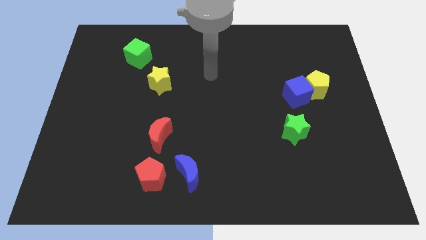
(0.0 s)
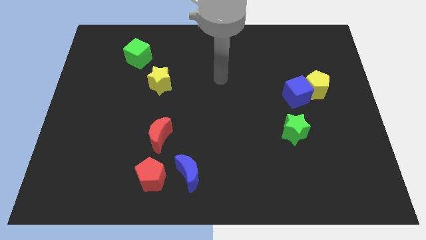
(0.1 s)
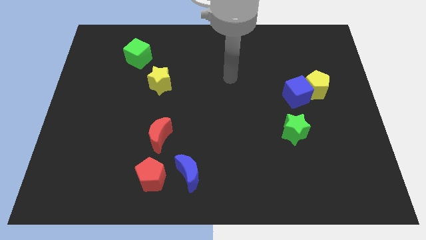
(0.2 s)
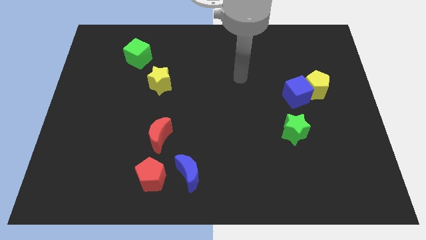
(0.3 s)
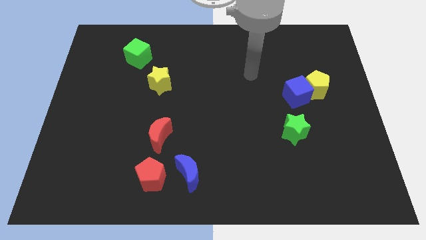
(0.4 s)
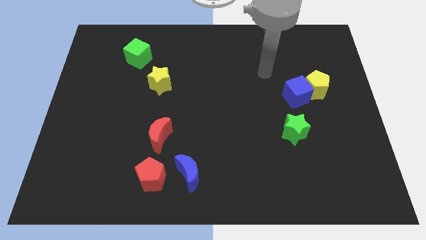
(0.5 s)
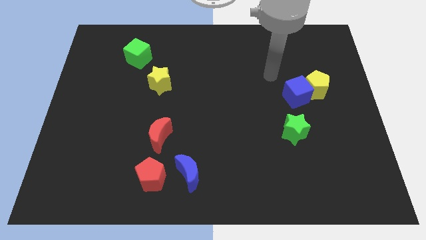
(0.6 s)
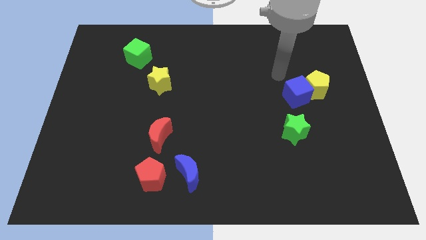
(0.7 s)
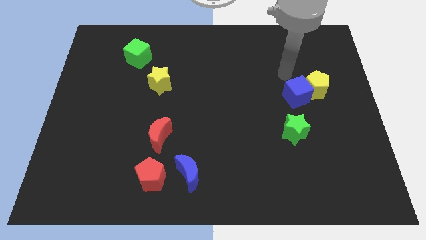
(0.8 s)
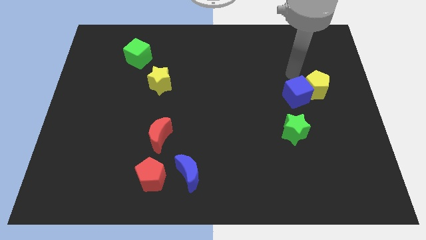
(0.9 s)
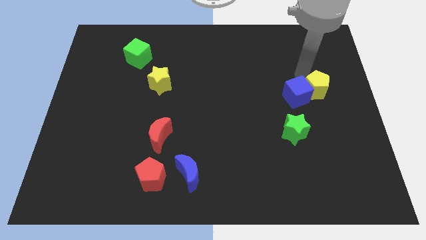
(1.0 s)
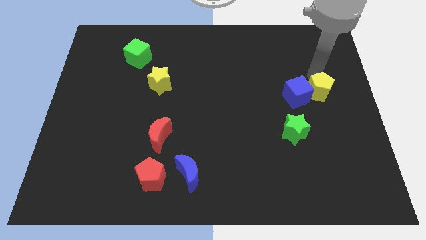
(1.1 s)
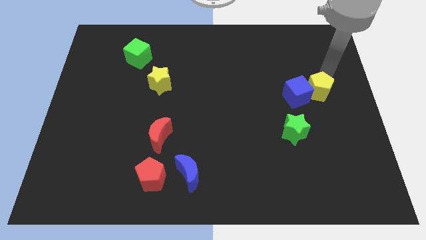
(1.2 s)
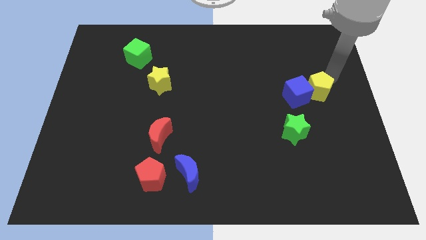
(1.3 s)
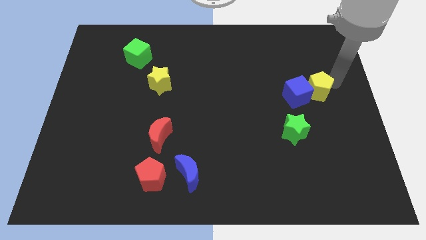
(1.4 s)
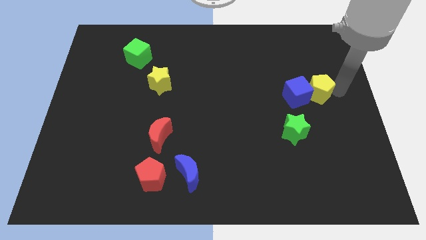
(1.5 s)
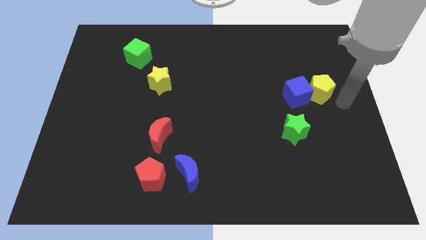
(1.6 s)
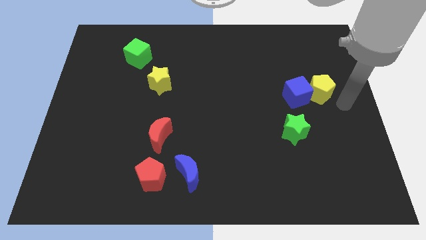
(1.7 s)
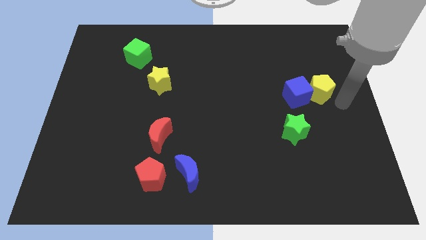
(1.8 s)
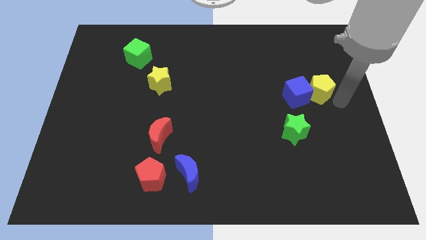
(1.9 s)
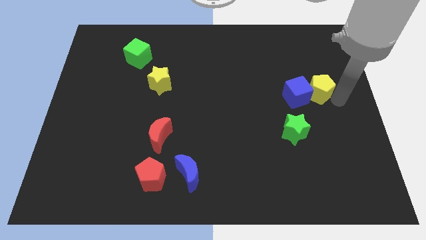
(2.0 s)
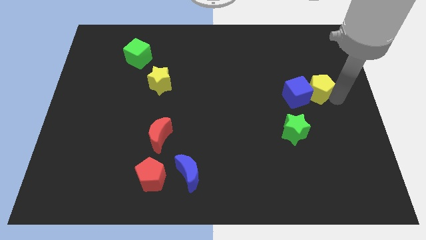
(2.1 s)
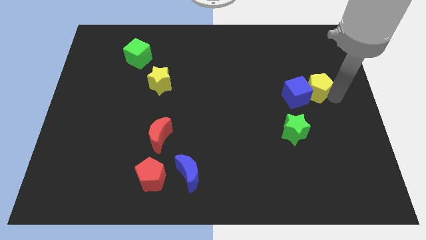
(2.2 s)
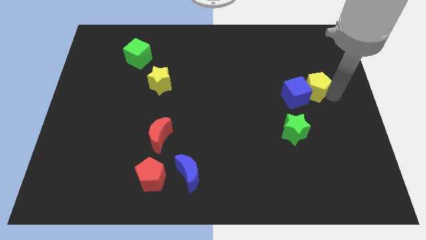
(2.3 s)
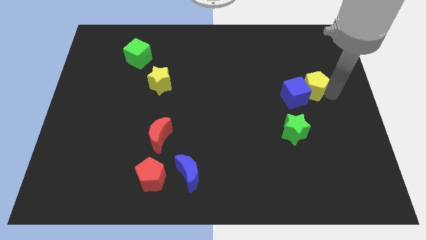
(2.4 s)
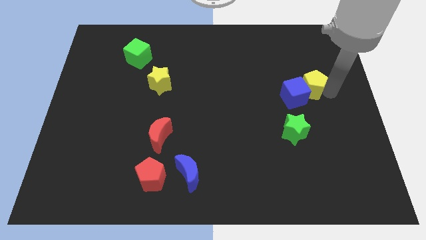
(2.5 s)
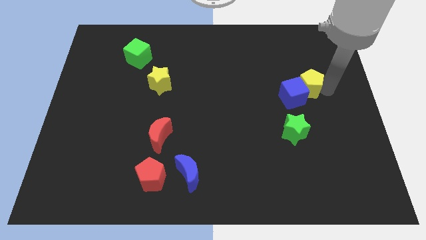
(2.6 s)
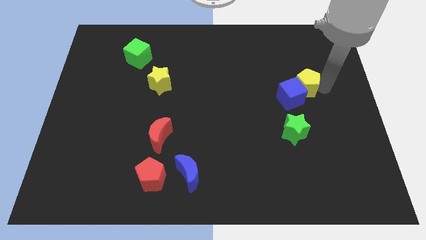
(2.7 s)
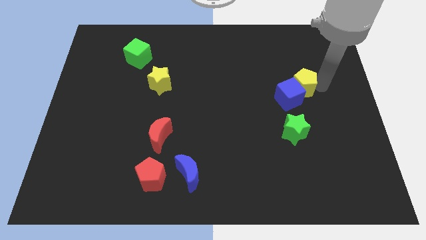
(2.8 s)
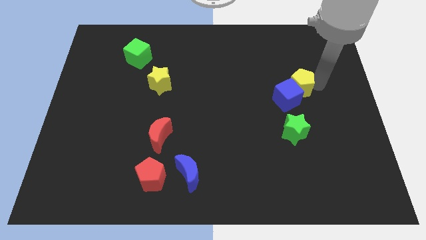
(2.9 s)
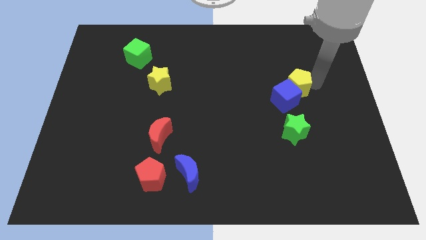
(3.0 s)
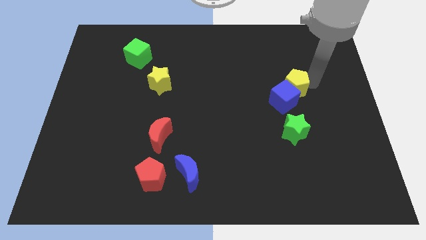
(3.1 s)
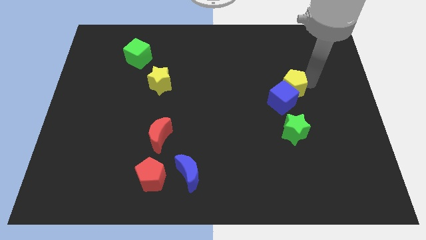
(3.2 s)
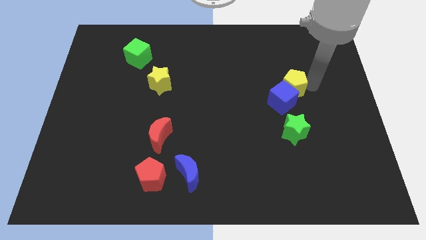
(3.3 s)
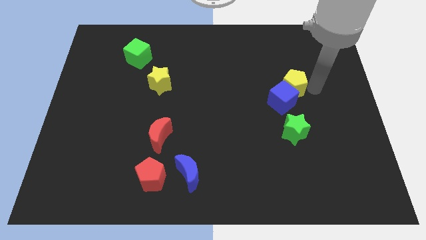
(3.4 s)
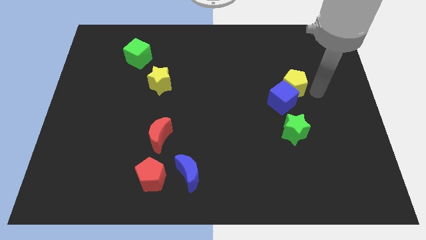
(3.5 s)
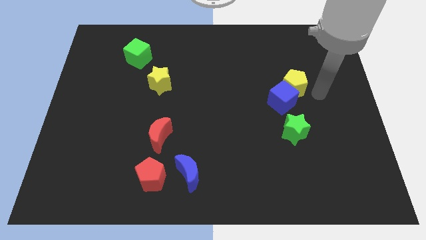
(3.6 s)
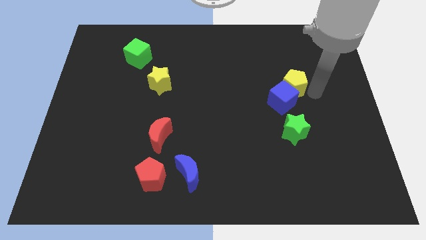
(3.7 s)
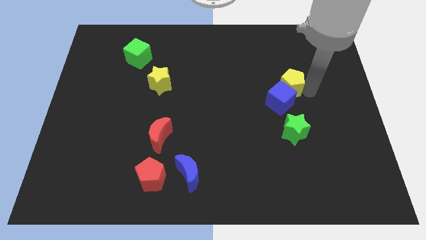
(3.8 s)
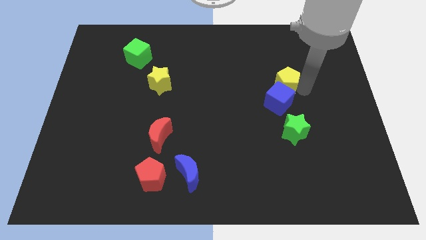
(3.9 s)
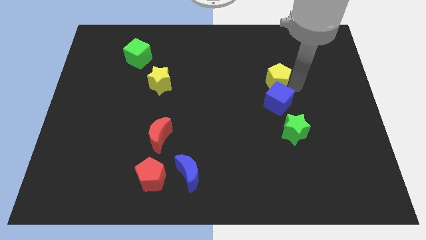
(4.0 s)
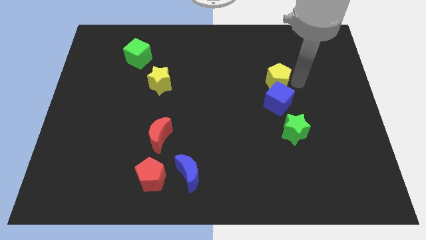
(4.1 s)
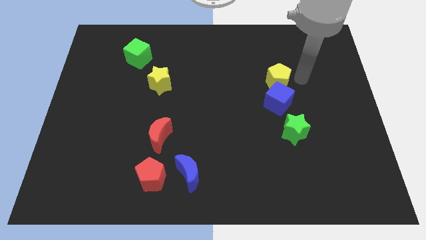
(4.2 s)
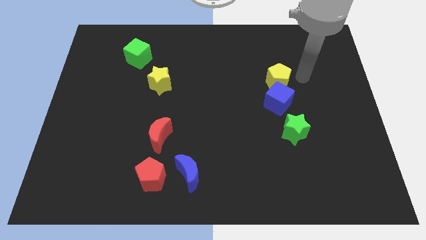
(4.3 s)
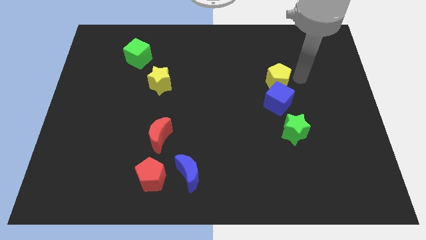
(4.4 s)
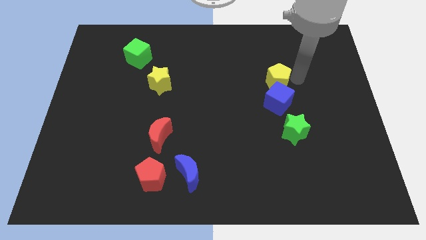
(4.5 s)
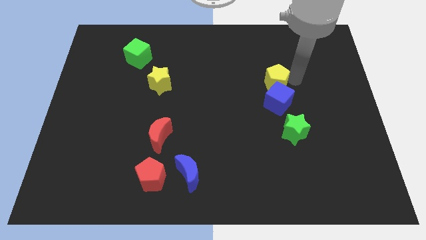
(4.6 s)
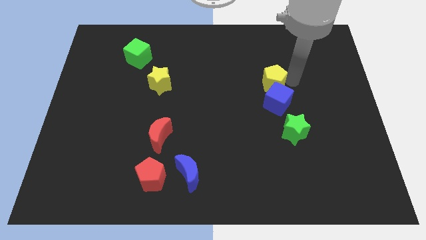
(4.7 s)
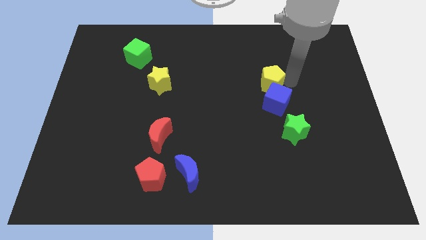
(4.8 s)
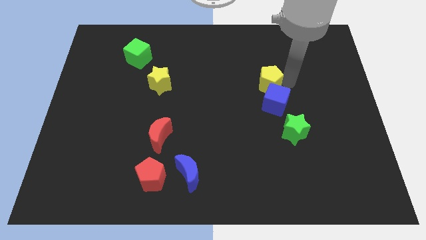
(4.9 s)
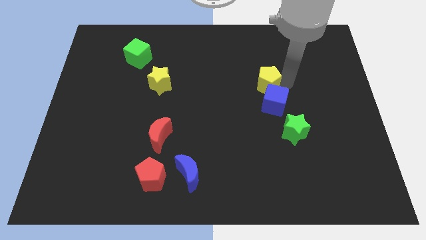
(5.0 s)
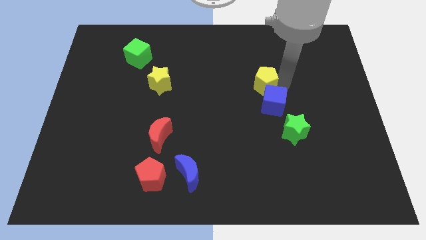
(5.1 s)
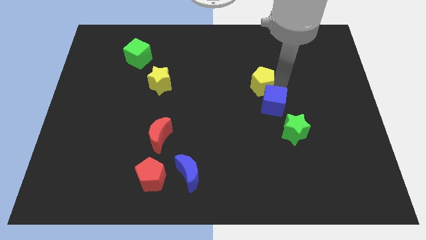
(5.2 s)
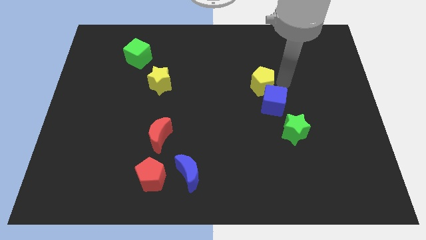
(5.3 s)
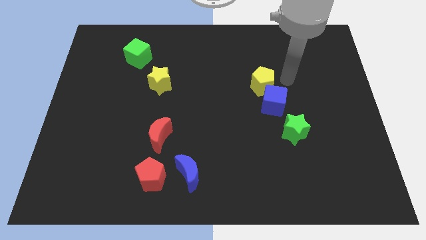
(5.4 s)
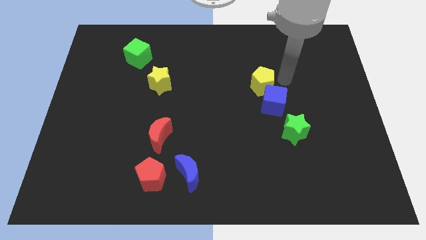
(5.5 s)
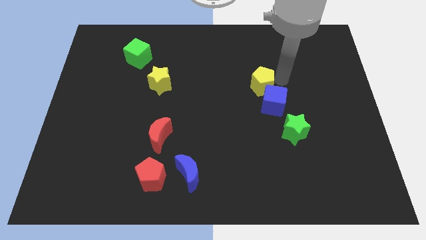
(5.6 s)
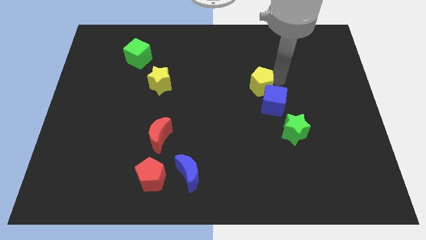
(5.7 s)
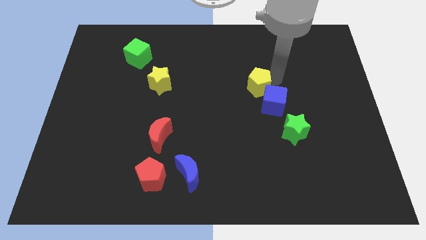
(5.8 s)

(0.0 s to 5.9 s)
push the yellow pentagon to the middle of the board

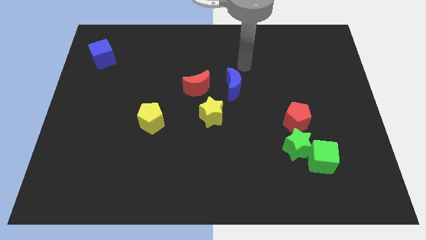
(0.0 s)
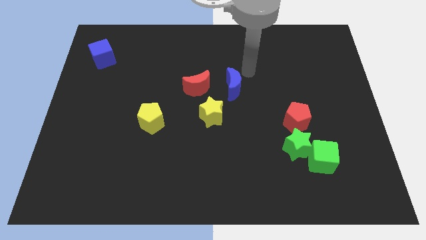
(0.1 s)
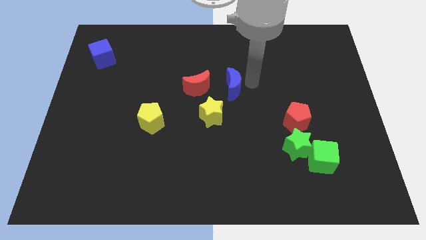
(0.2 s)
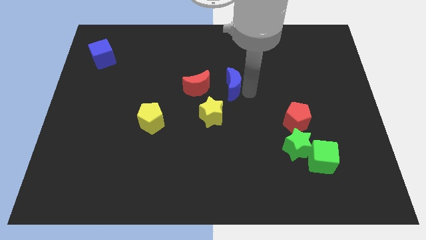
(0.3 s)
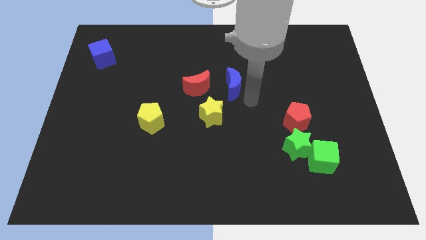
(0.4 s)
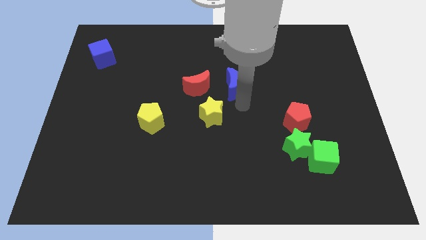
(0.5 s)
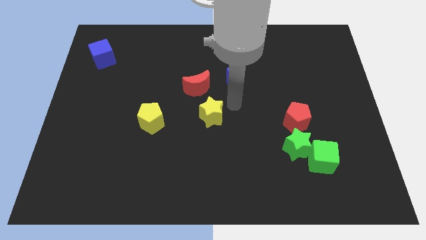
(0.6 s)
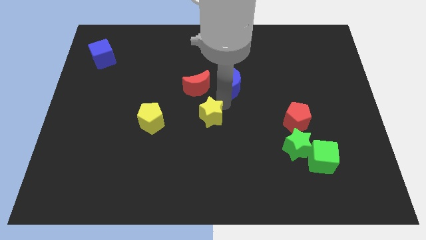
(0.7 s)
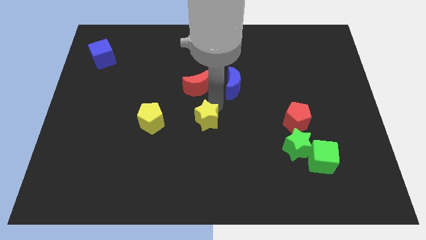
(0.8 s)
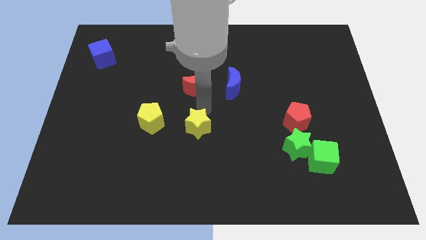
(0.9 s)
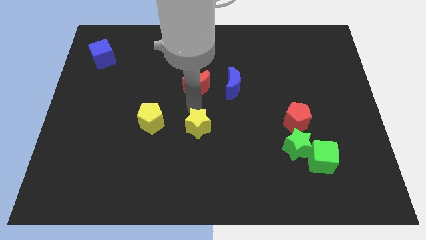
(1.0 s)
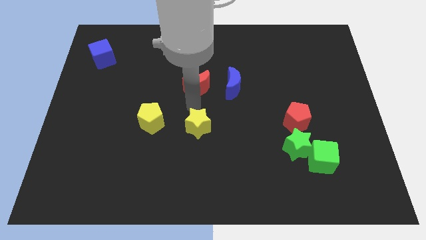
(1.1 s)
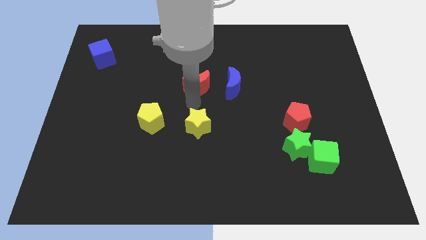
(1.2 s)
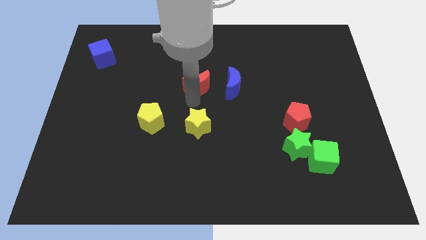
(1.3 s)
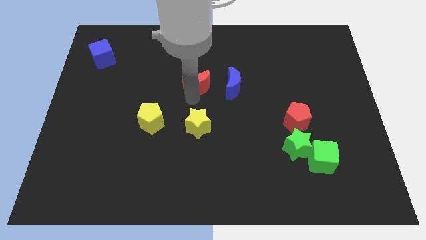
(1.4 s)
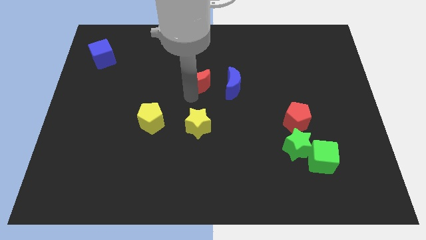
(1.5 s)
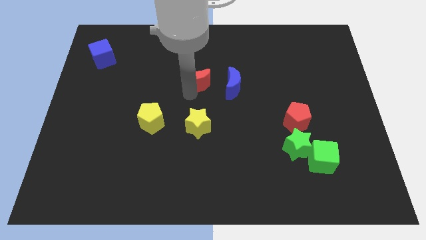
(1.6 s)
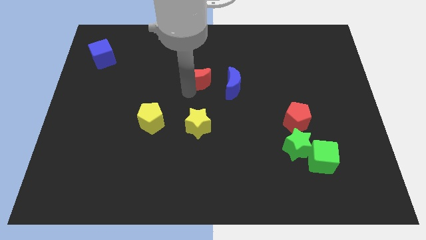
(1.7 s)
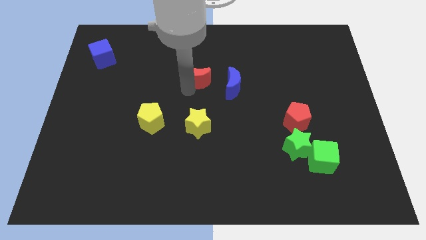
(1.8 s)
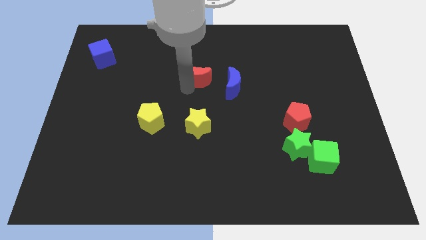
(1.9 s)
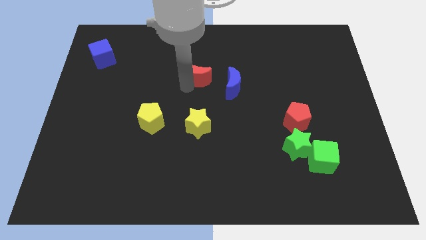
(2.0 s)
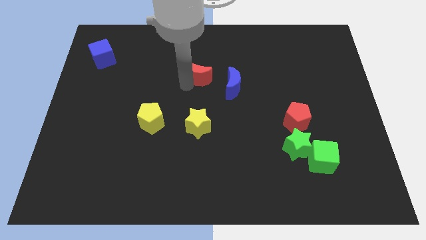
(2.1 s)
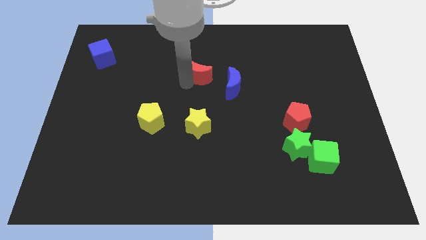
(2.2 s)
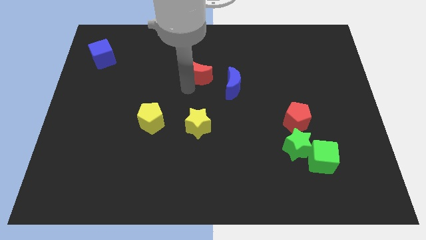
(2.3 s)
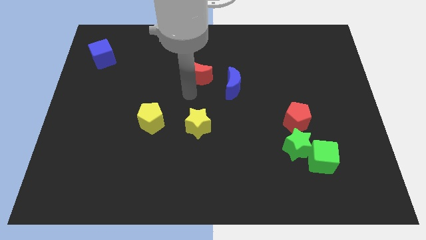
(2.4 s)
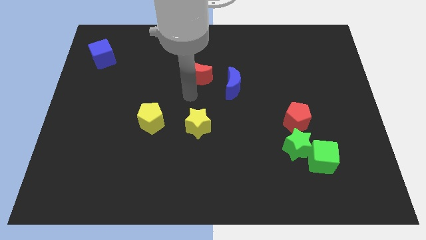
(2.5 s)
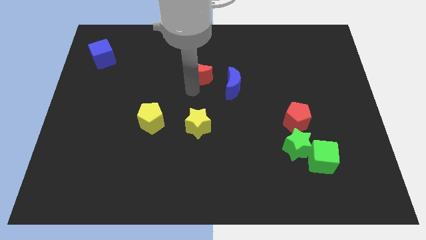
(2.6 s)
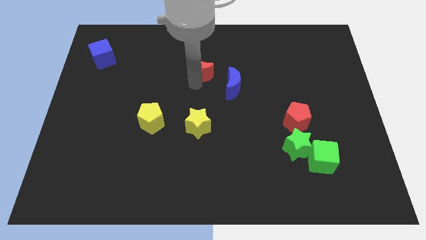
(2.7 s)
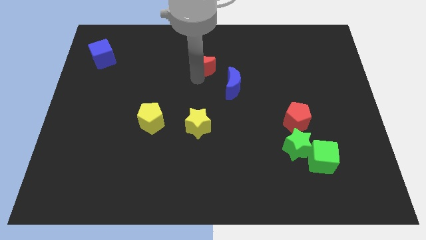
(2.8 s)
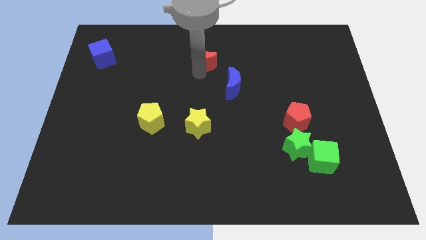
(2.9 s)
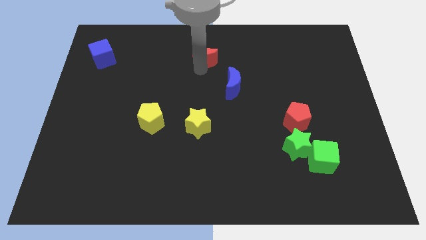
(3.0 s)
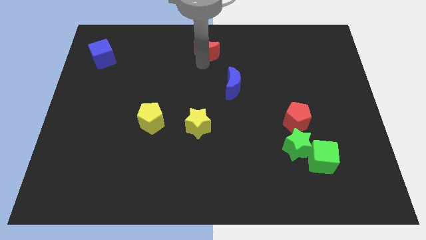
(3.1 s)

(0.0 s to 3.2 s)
put the red moon to the top side
